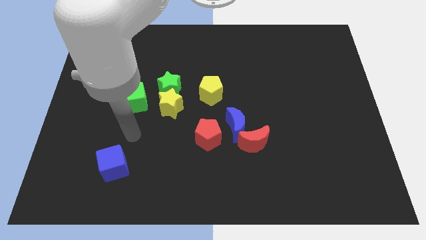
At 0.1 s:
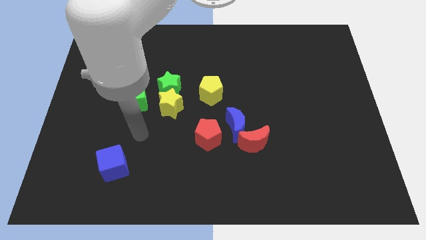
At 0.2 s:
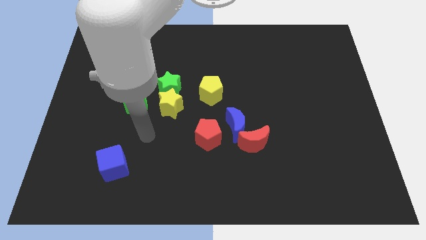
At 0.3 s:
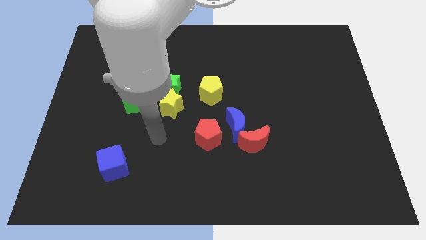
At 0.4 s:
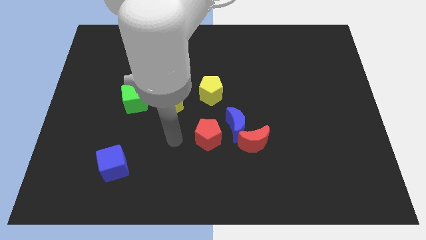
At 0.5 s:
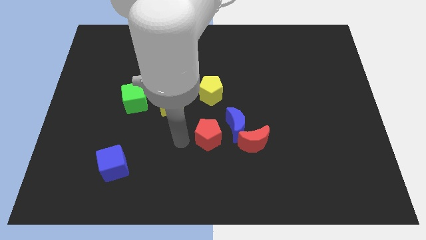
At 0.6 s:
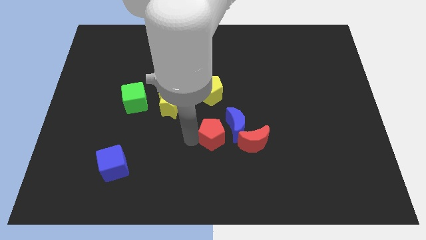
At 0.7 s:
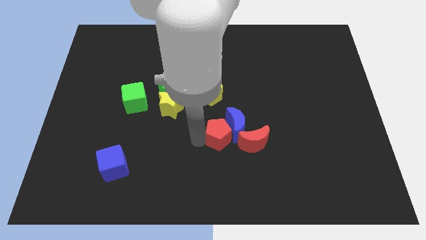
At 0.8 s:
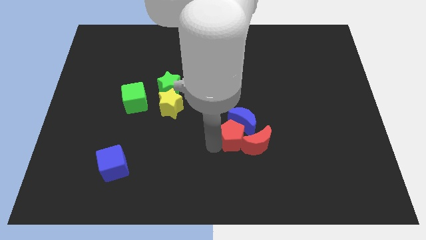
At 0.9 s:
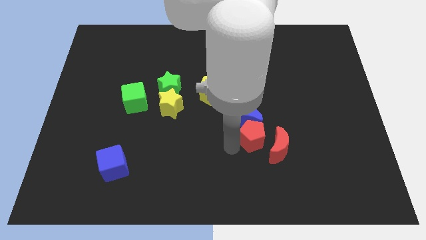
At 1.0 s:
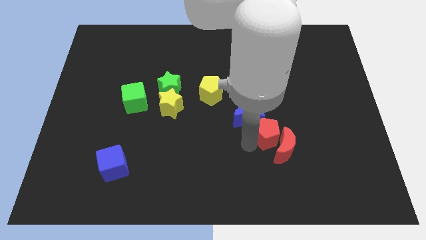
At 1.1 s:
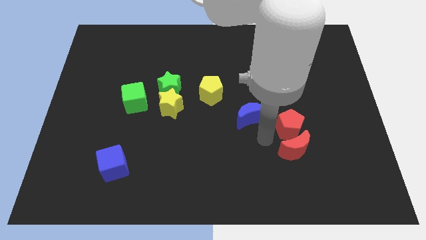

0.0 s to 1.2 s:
separate the blue moon from the red moon and red pentagon

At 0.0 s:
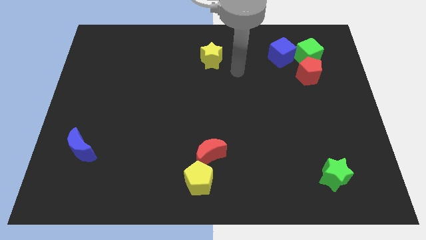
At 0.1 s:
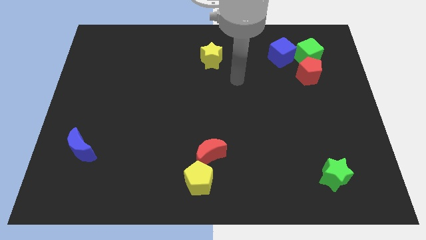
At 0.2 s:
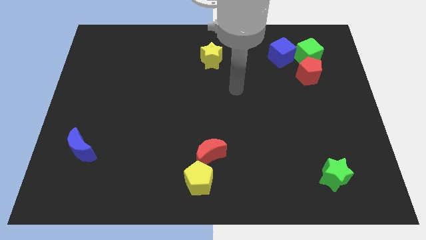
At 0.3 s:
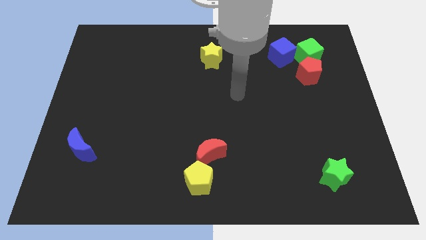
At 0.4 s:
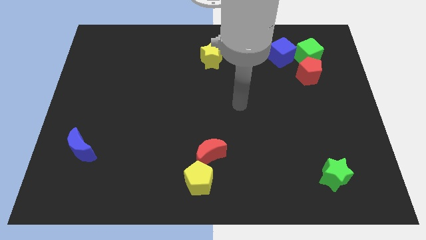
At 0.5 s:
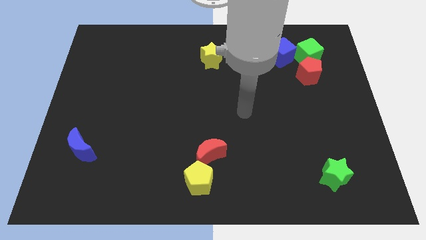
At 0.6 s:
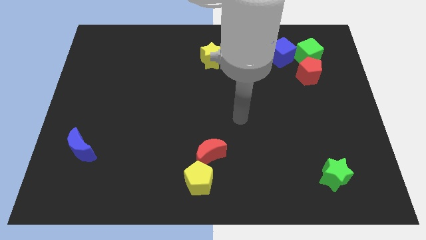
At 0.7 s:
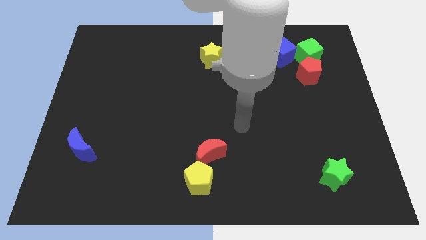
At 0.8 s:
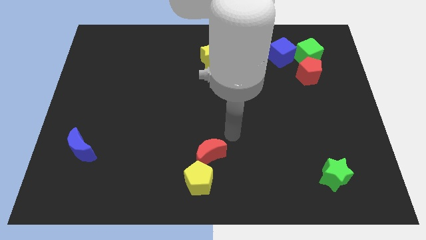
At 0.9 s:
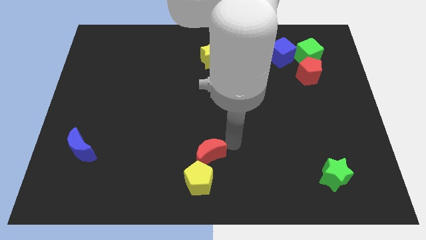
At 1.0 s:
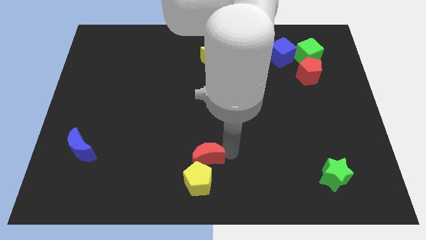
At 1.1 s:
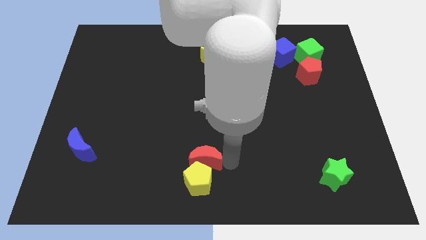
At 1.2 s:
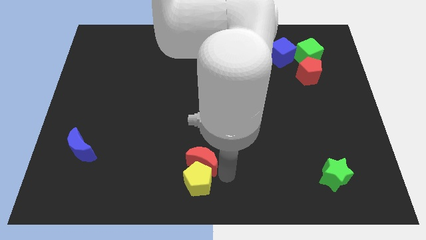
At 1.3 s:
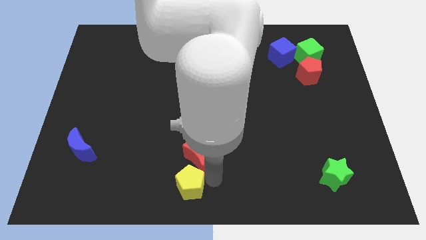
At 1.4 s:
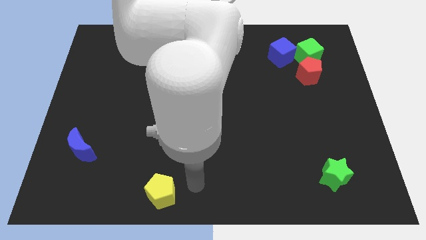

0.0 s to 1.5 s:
pull the red moon apart from the yellow pentagon

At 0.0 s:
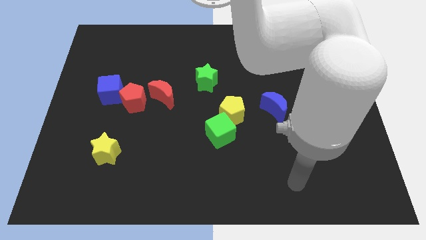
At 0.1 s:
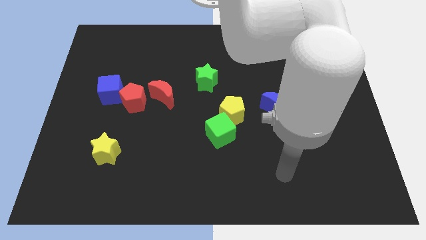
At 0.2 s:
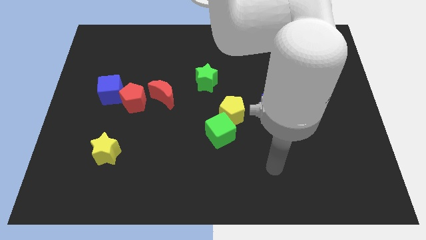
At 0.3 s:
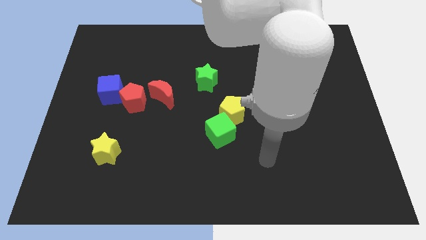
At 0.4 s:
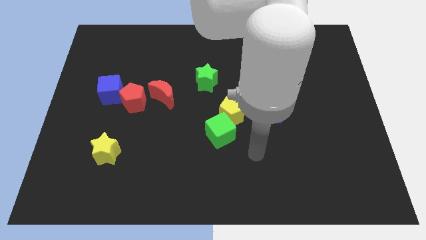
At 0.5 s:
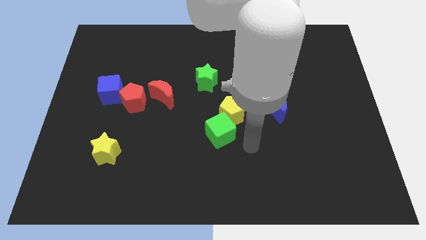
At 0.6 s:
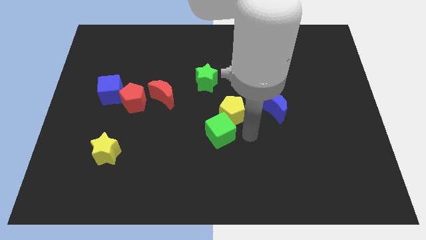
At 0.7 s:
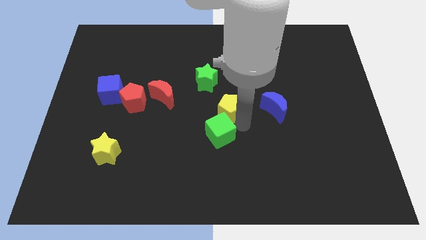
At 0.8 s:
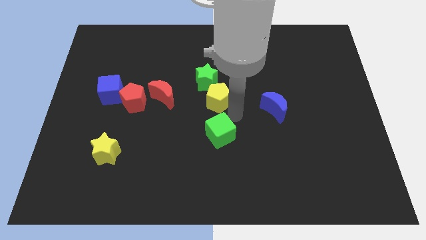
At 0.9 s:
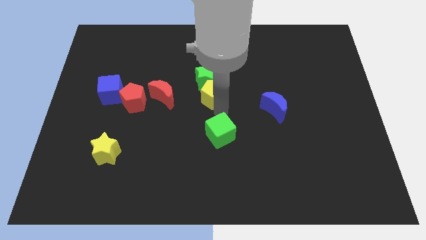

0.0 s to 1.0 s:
move the green cube away from the yellow pentagon

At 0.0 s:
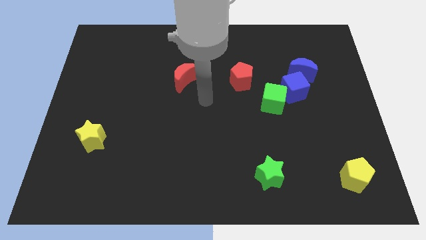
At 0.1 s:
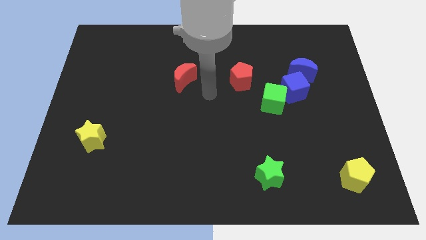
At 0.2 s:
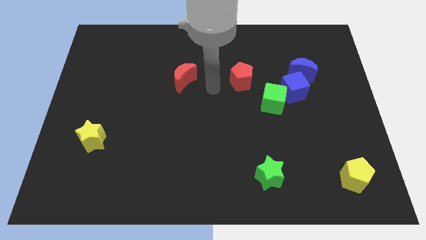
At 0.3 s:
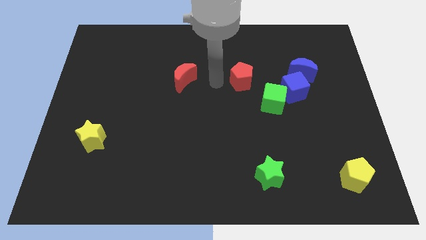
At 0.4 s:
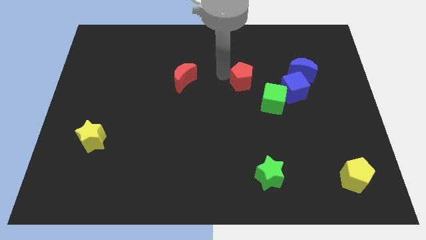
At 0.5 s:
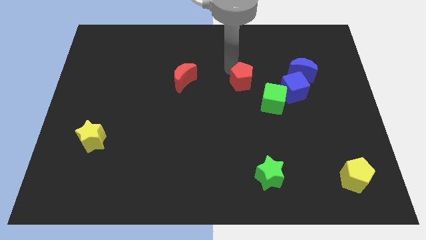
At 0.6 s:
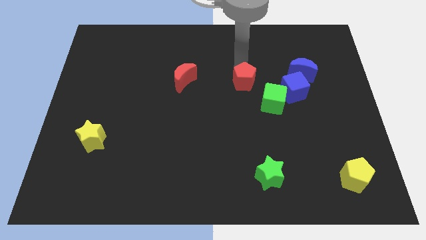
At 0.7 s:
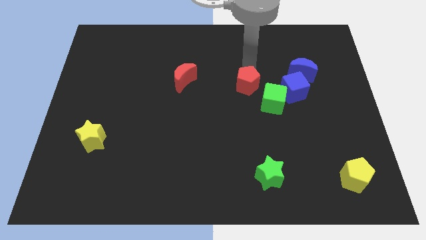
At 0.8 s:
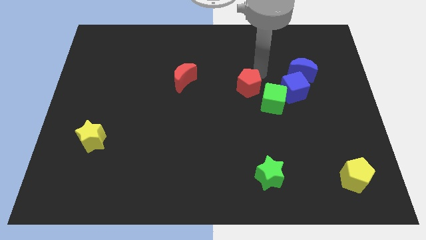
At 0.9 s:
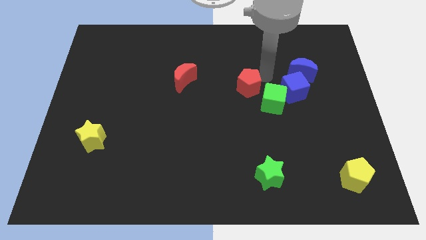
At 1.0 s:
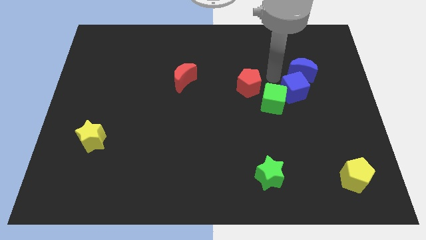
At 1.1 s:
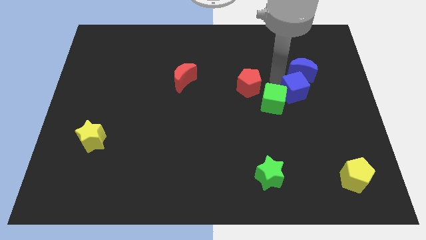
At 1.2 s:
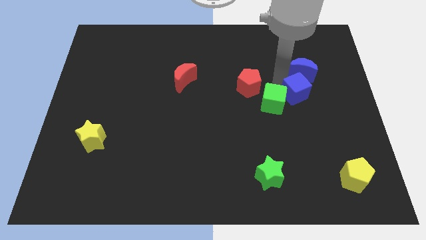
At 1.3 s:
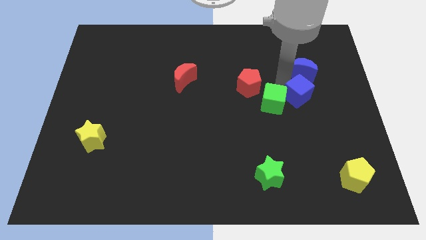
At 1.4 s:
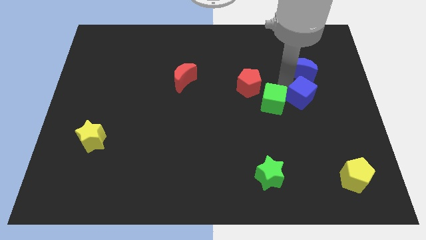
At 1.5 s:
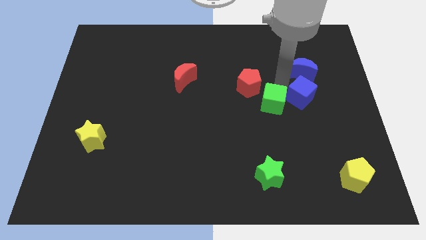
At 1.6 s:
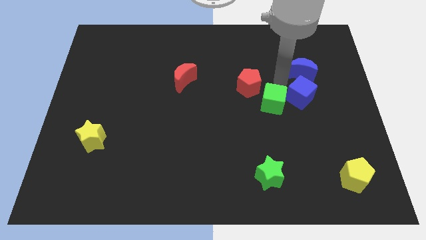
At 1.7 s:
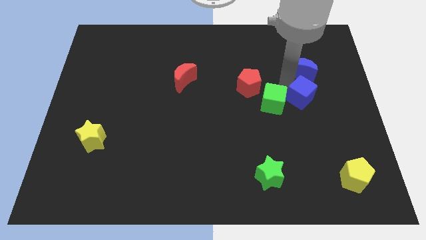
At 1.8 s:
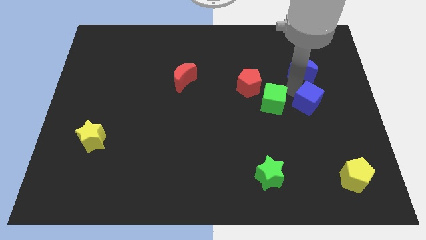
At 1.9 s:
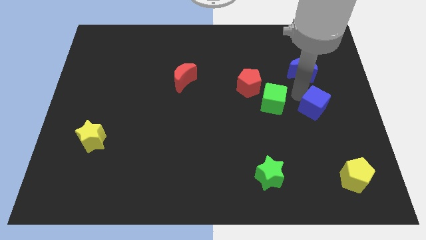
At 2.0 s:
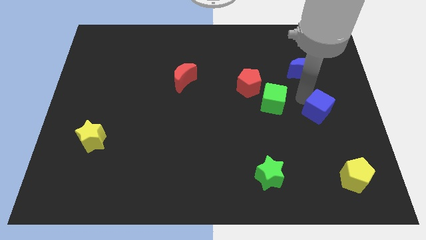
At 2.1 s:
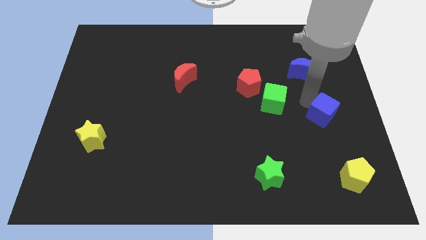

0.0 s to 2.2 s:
pull the blue cube apart from the green cube and blue moon

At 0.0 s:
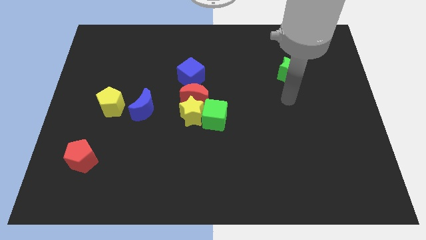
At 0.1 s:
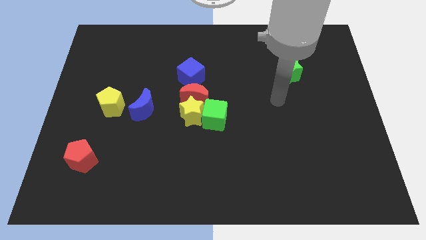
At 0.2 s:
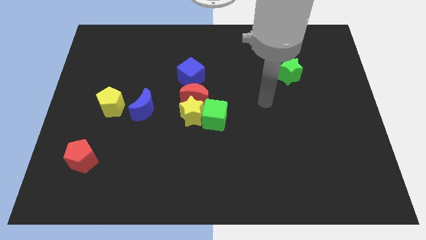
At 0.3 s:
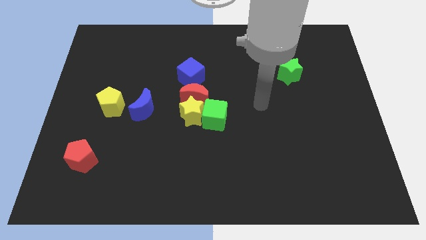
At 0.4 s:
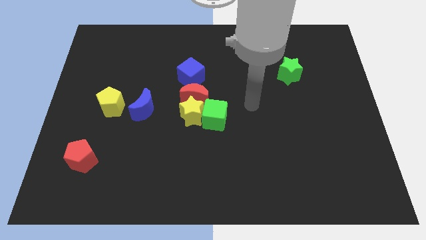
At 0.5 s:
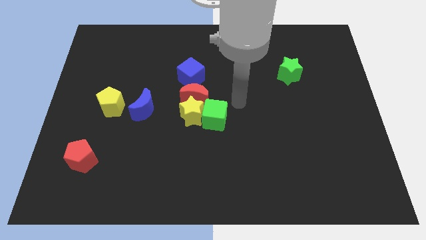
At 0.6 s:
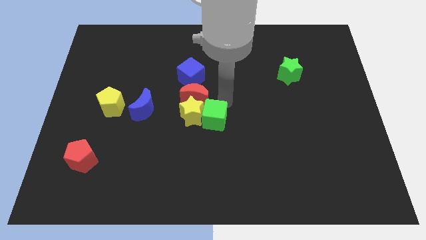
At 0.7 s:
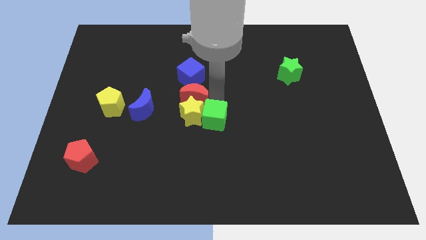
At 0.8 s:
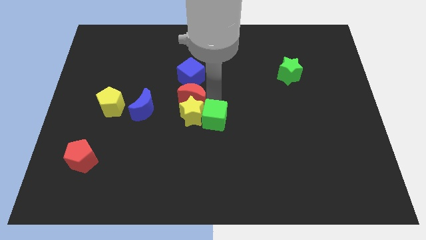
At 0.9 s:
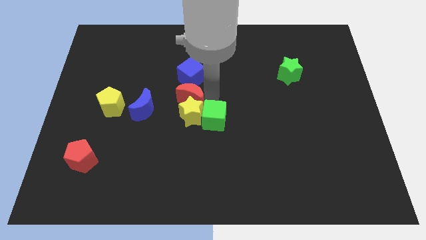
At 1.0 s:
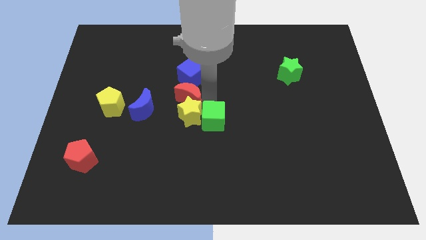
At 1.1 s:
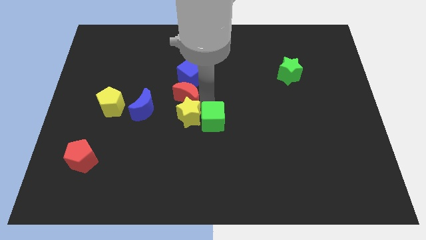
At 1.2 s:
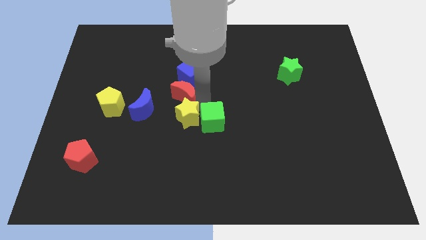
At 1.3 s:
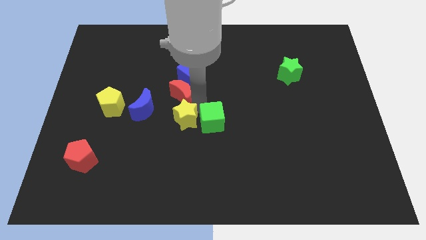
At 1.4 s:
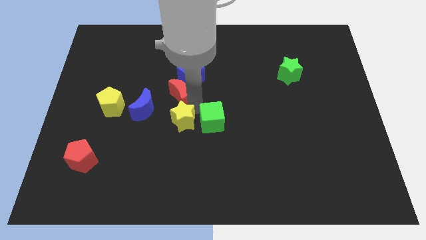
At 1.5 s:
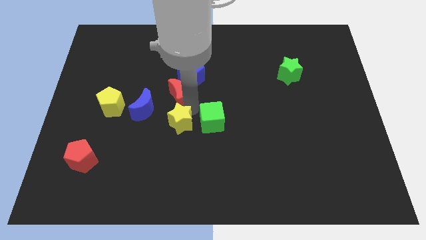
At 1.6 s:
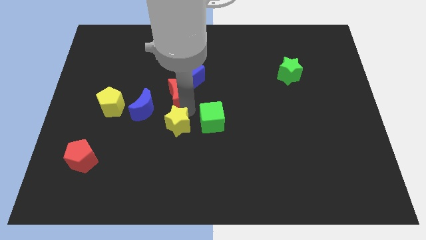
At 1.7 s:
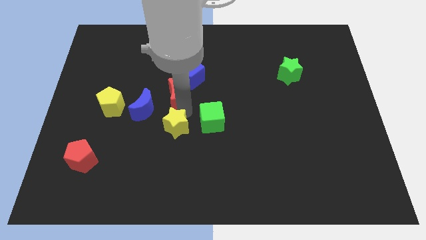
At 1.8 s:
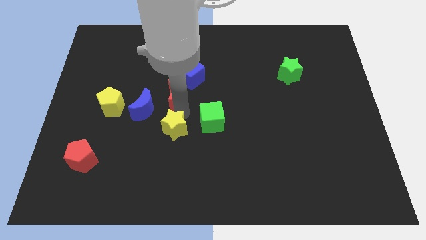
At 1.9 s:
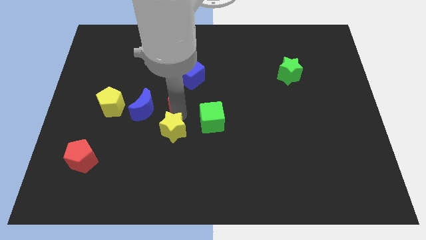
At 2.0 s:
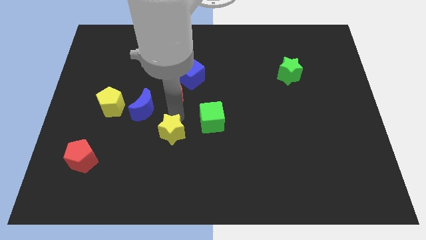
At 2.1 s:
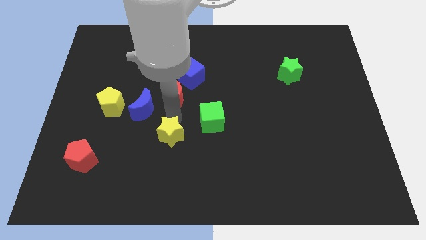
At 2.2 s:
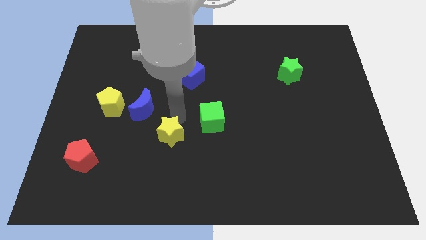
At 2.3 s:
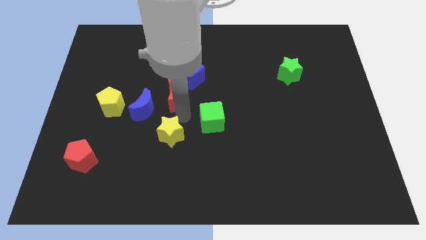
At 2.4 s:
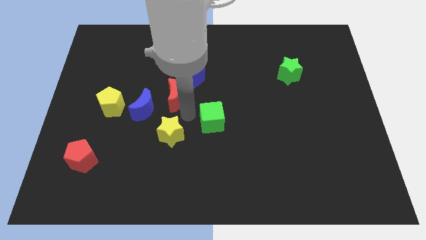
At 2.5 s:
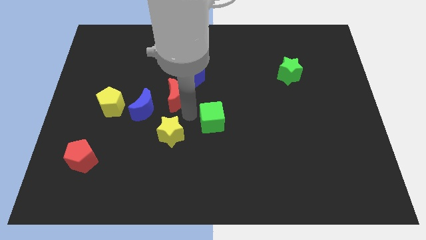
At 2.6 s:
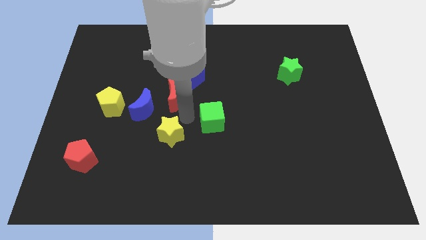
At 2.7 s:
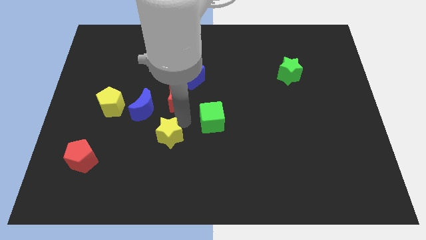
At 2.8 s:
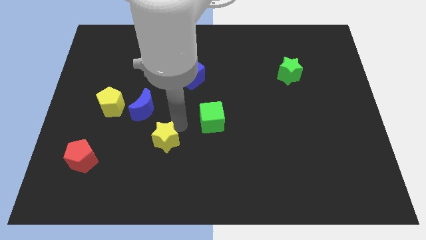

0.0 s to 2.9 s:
separate the yellow star from the red moon and green cube

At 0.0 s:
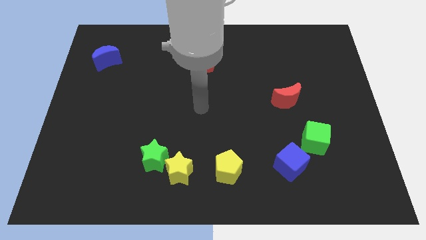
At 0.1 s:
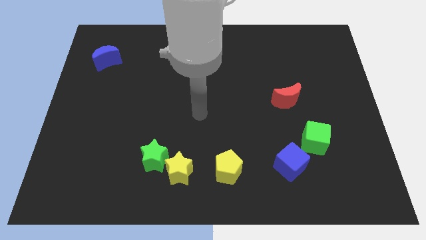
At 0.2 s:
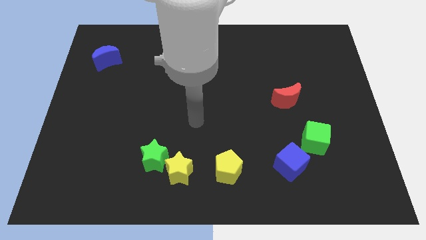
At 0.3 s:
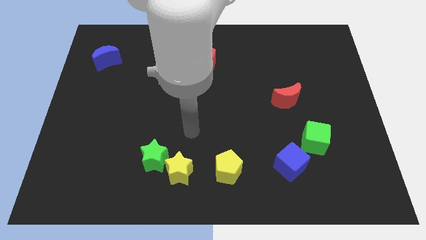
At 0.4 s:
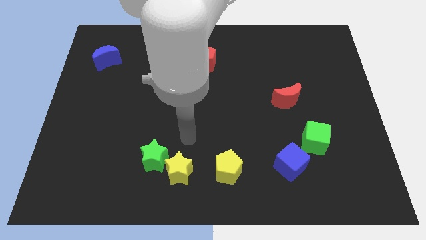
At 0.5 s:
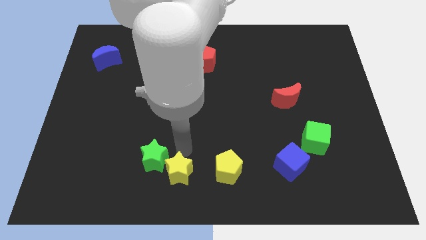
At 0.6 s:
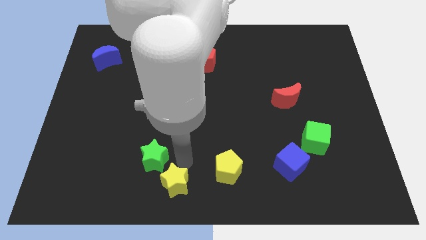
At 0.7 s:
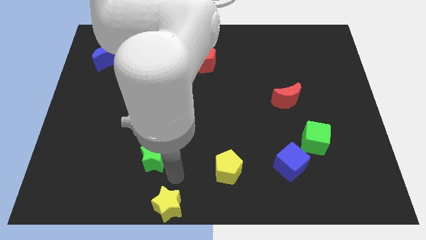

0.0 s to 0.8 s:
pull the green star apart from the yellow star
